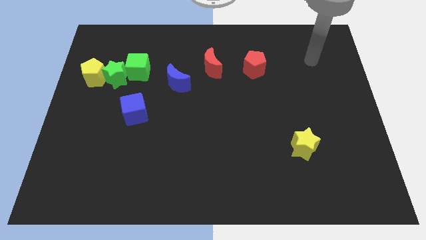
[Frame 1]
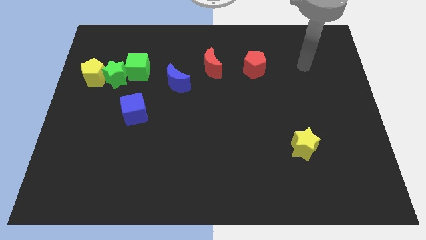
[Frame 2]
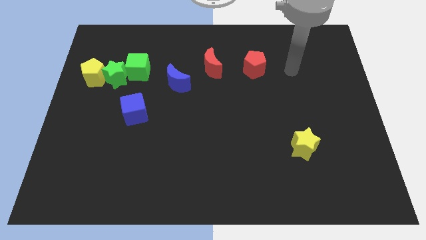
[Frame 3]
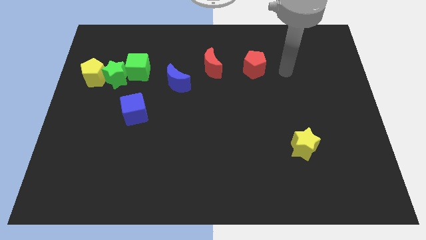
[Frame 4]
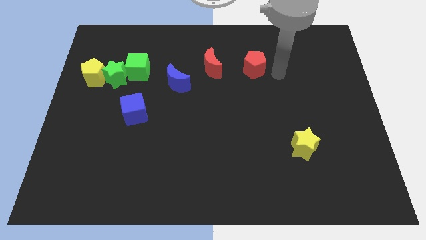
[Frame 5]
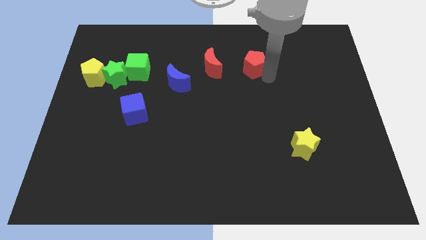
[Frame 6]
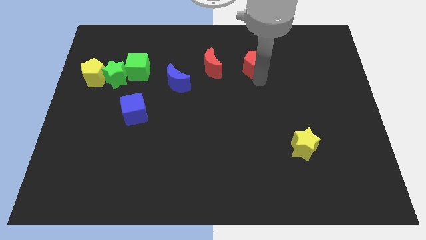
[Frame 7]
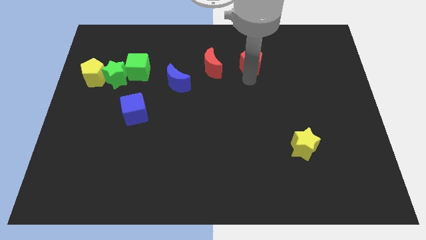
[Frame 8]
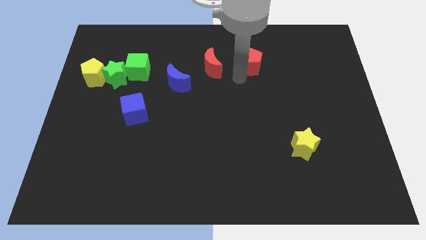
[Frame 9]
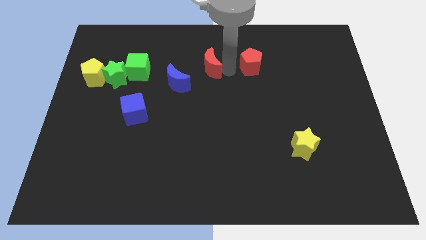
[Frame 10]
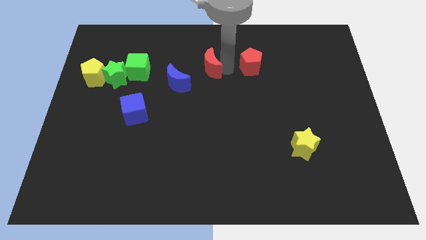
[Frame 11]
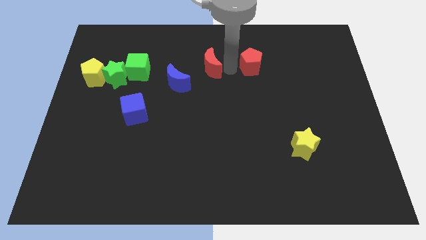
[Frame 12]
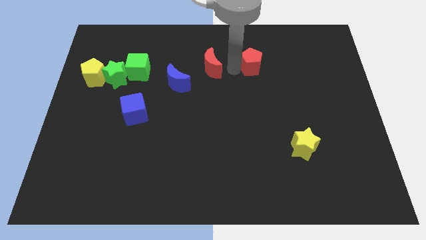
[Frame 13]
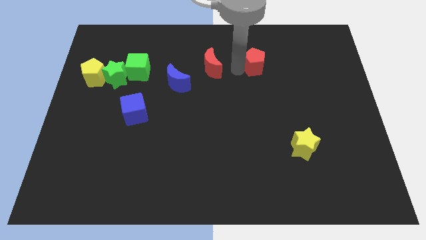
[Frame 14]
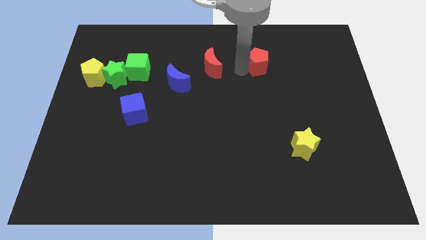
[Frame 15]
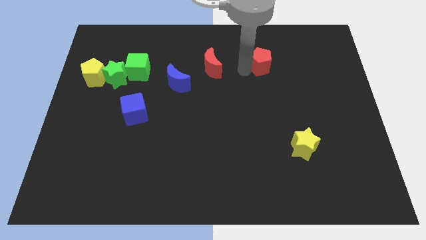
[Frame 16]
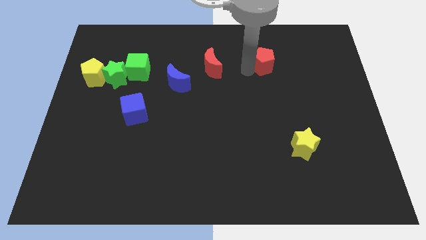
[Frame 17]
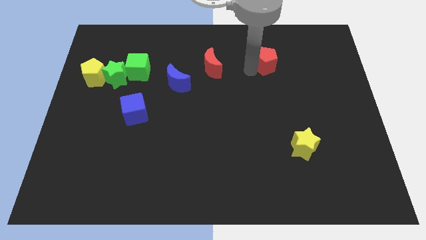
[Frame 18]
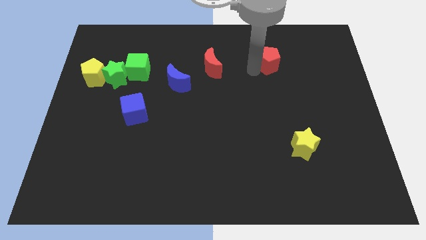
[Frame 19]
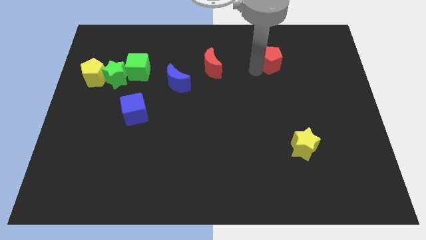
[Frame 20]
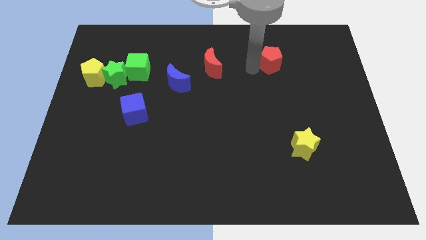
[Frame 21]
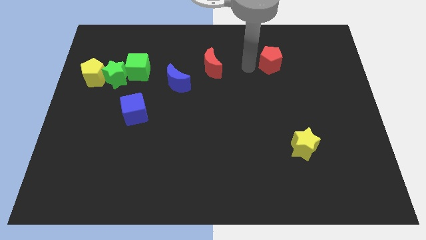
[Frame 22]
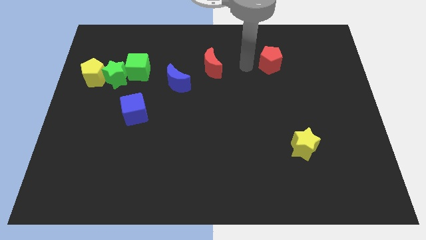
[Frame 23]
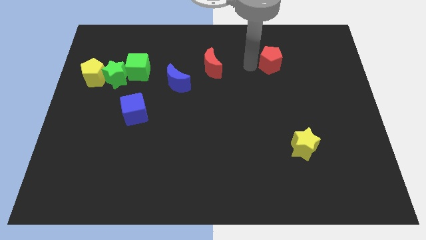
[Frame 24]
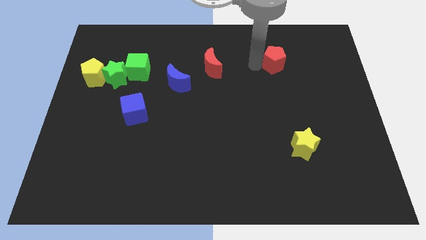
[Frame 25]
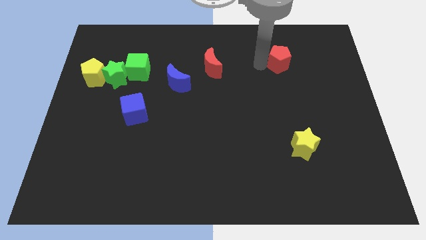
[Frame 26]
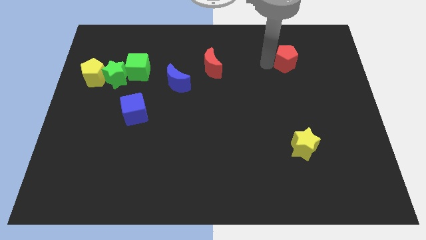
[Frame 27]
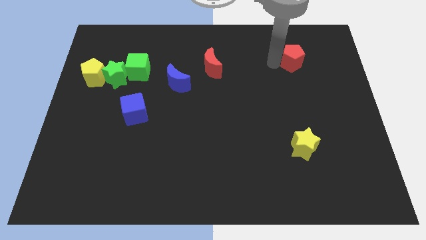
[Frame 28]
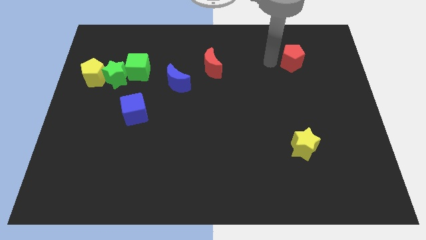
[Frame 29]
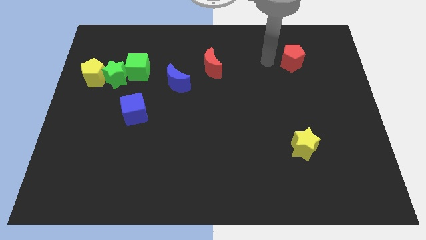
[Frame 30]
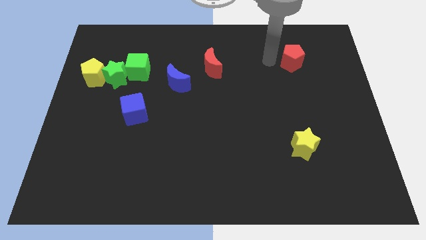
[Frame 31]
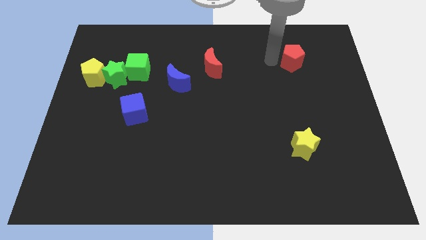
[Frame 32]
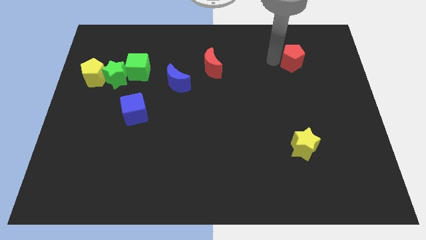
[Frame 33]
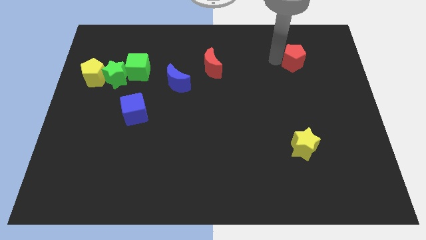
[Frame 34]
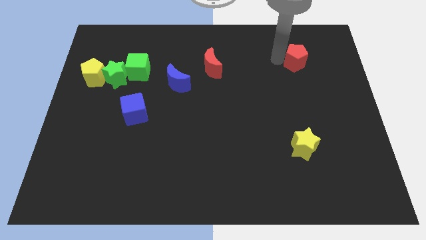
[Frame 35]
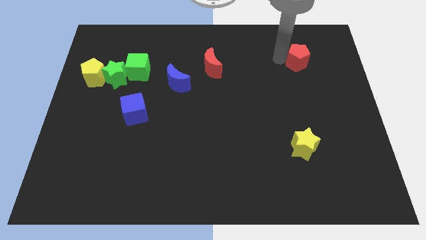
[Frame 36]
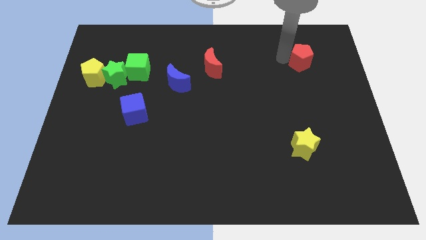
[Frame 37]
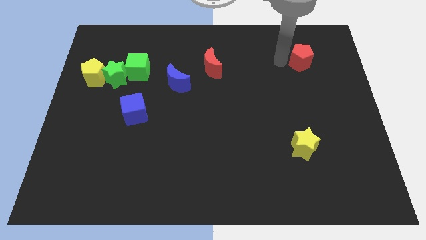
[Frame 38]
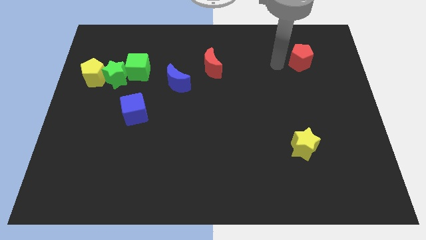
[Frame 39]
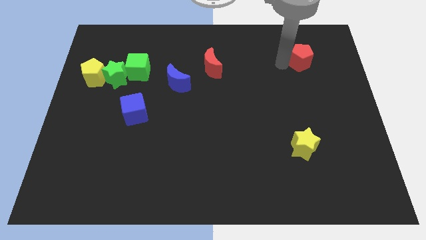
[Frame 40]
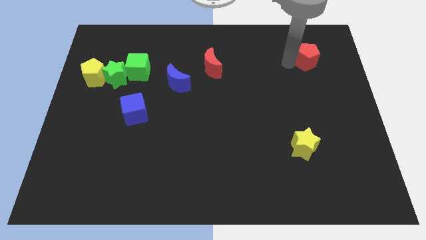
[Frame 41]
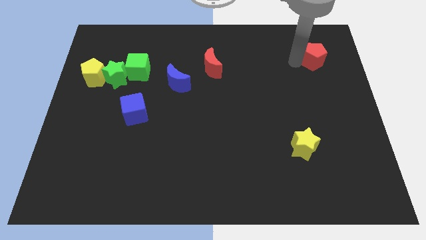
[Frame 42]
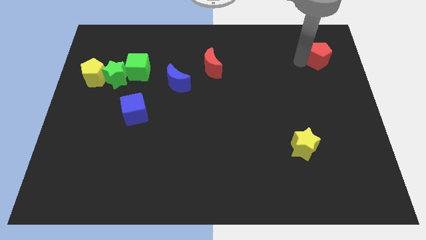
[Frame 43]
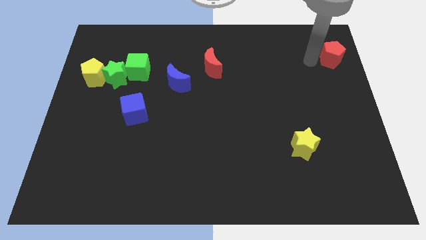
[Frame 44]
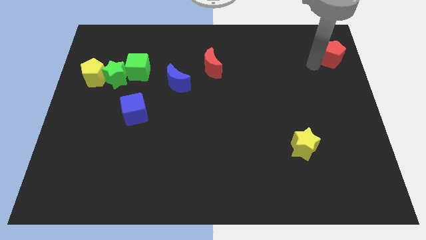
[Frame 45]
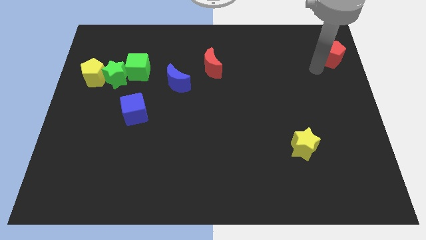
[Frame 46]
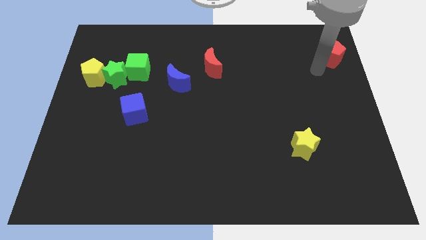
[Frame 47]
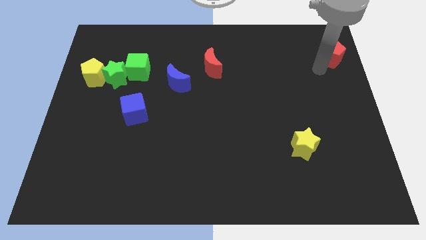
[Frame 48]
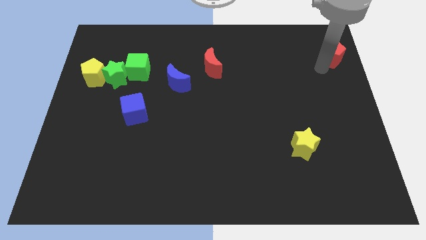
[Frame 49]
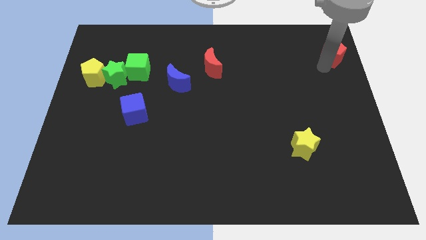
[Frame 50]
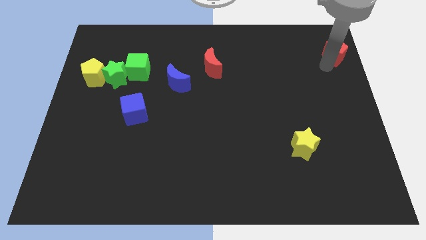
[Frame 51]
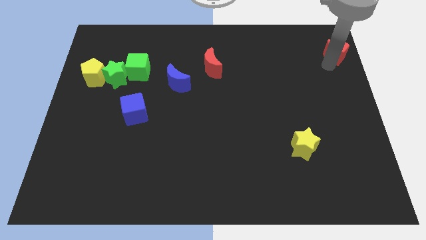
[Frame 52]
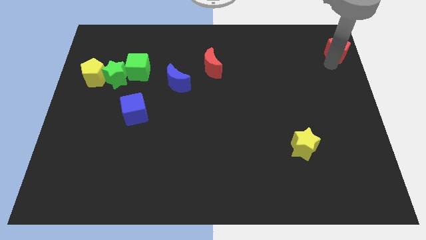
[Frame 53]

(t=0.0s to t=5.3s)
move the red pentagon to the top right of the board

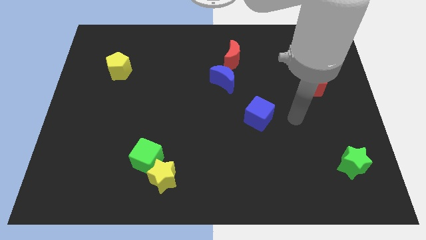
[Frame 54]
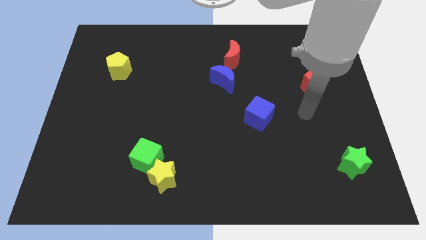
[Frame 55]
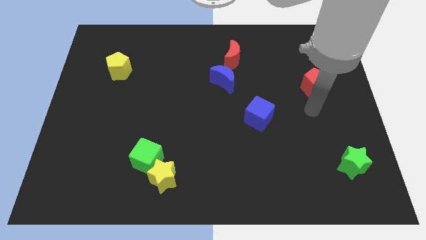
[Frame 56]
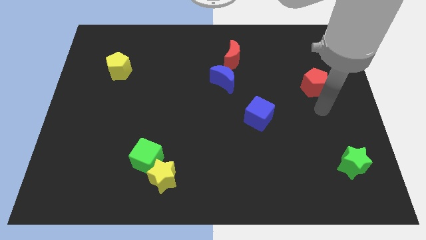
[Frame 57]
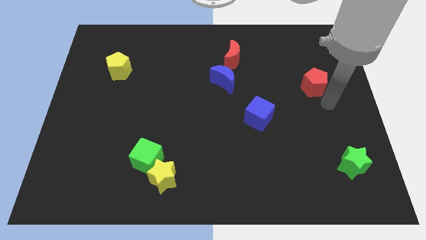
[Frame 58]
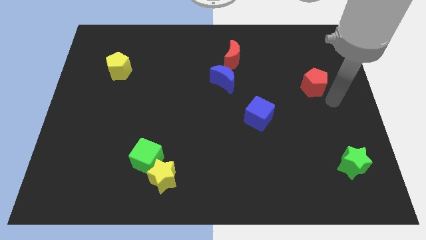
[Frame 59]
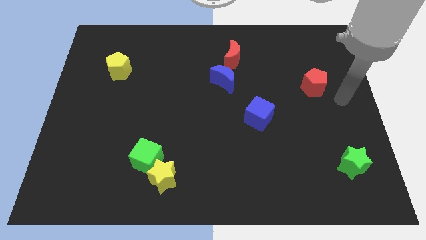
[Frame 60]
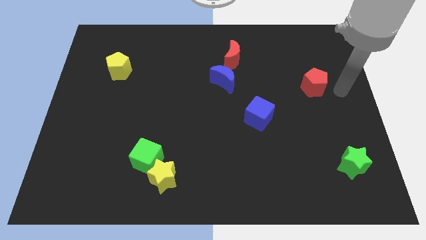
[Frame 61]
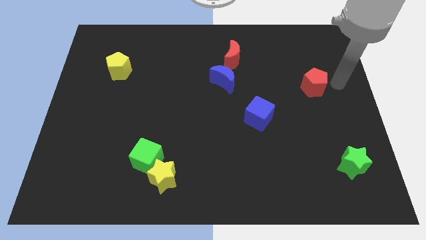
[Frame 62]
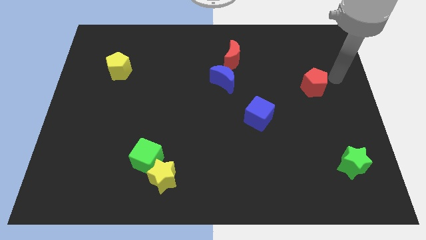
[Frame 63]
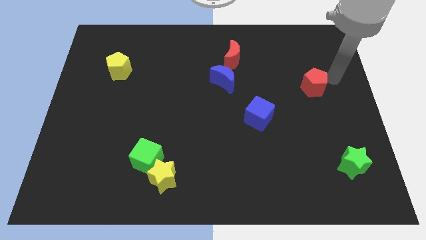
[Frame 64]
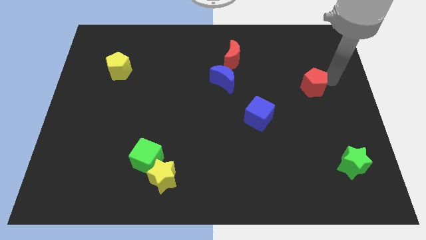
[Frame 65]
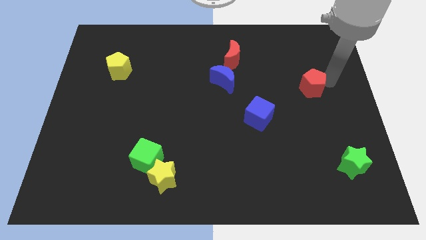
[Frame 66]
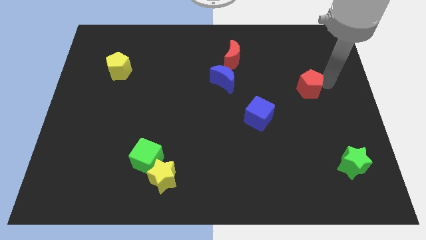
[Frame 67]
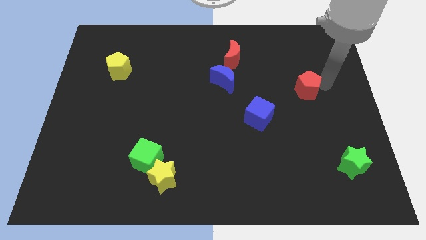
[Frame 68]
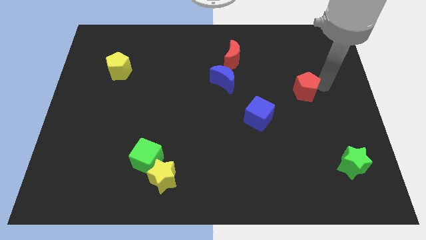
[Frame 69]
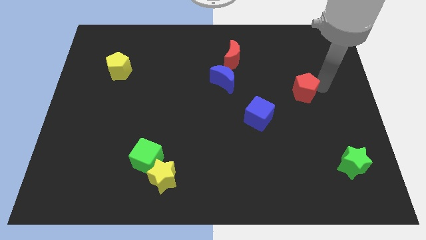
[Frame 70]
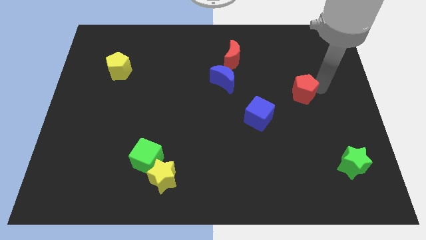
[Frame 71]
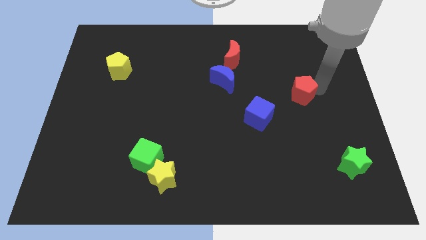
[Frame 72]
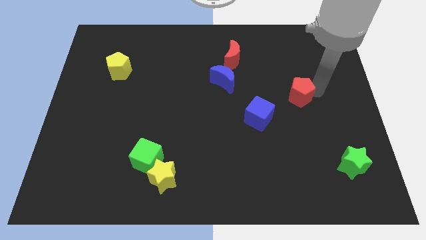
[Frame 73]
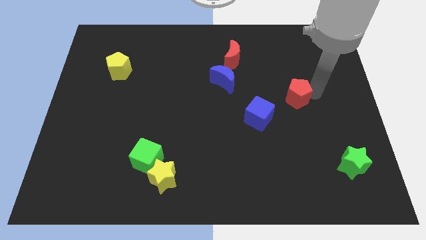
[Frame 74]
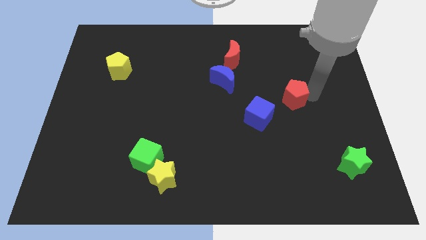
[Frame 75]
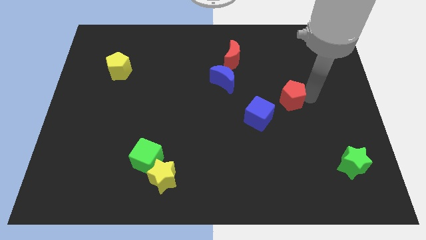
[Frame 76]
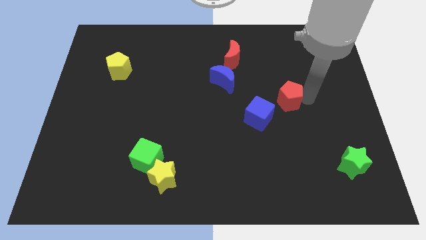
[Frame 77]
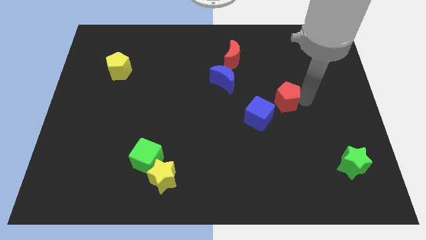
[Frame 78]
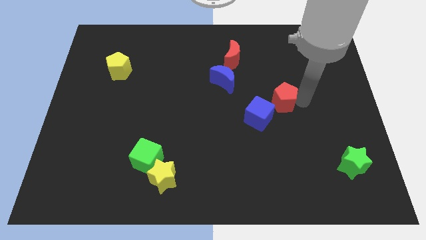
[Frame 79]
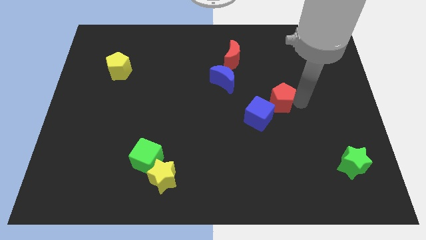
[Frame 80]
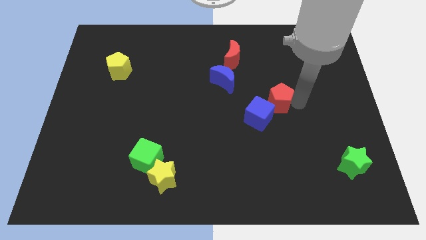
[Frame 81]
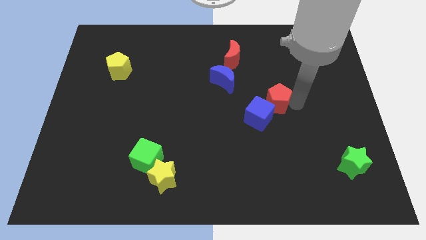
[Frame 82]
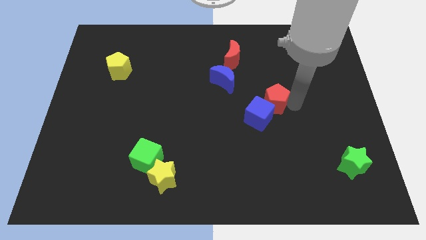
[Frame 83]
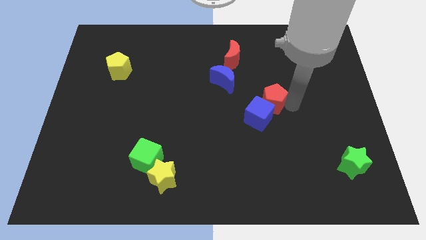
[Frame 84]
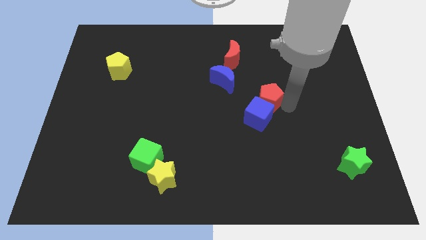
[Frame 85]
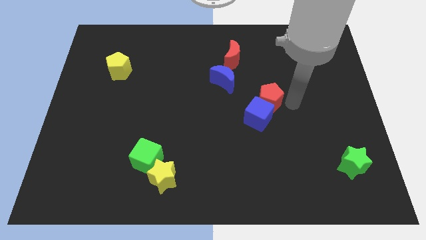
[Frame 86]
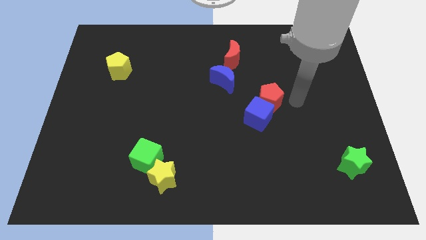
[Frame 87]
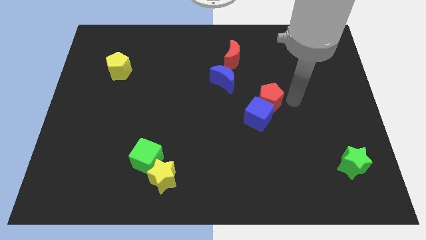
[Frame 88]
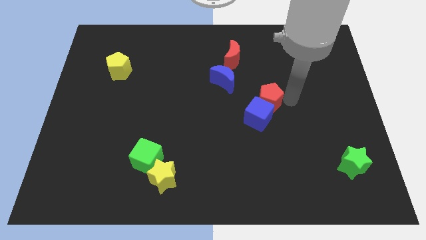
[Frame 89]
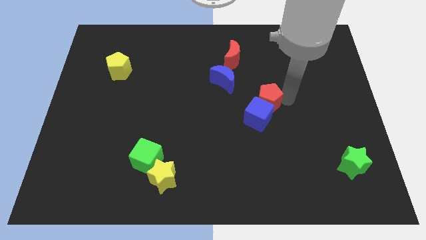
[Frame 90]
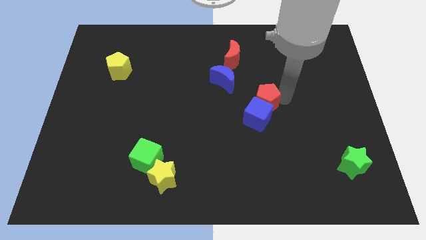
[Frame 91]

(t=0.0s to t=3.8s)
move the red pentagon to the middle
